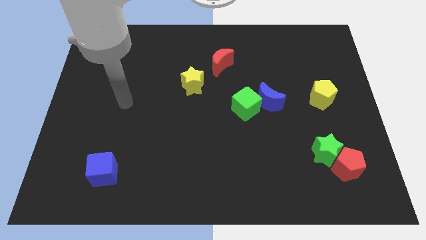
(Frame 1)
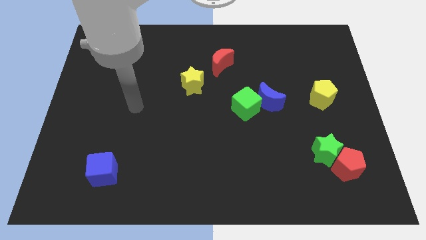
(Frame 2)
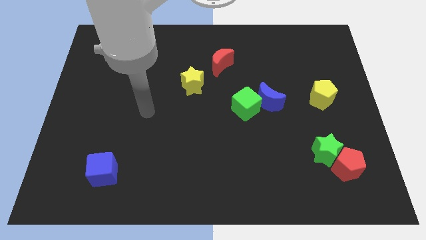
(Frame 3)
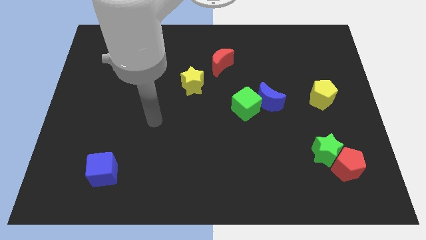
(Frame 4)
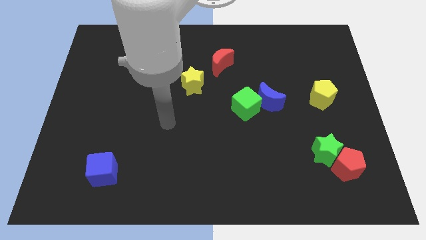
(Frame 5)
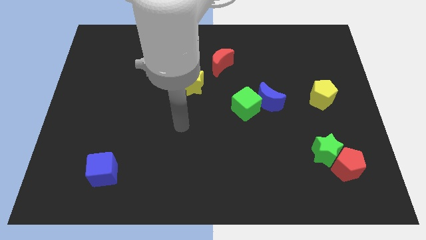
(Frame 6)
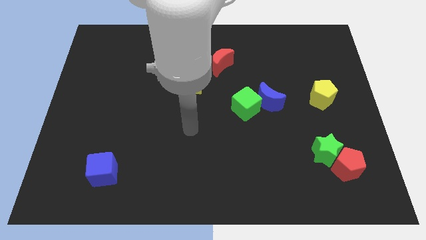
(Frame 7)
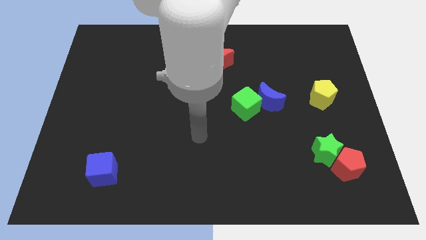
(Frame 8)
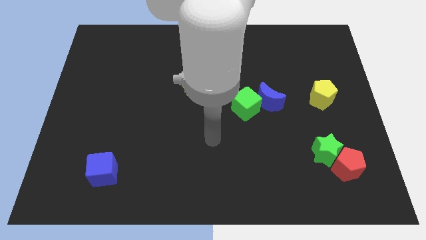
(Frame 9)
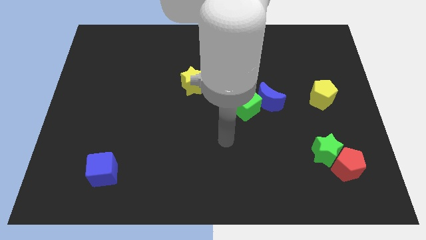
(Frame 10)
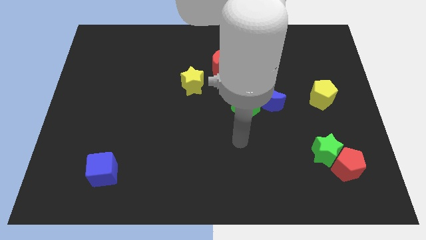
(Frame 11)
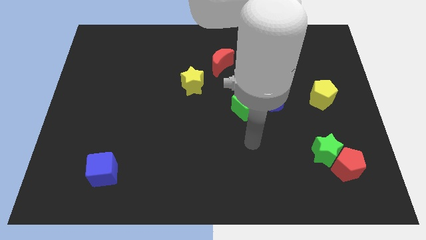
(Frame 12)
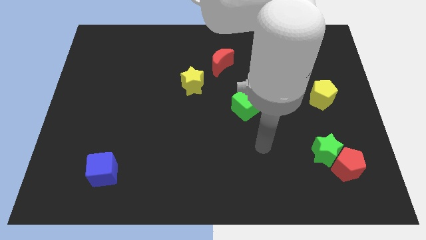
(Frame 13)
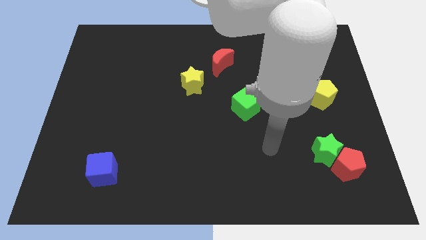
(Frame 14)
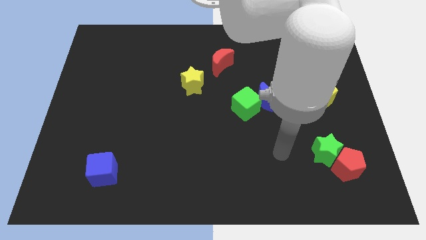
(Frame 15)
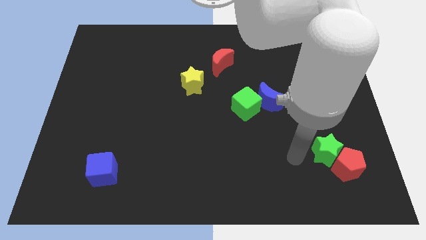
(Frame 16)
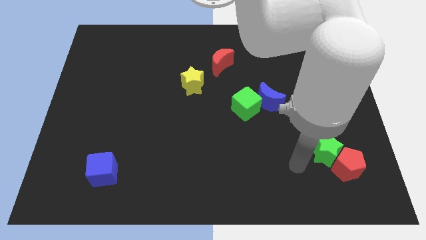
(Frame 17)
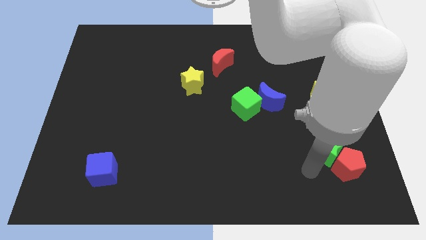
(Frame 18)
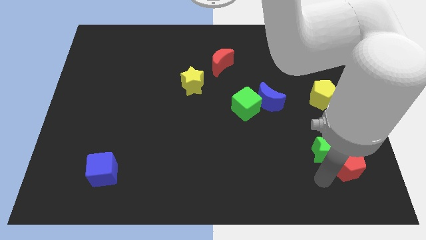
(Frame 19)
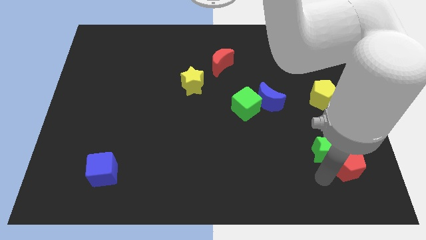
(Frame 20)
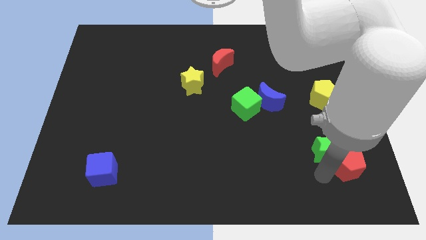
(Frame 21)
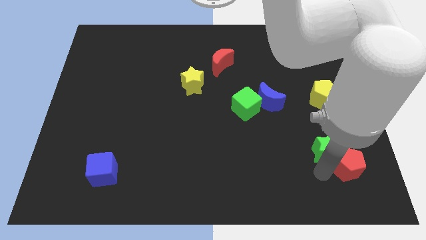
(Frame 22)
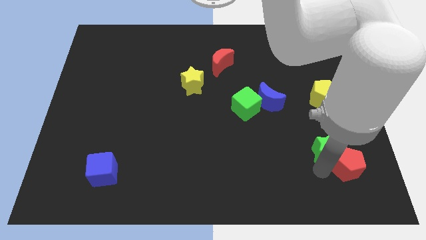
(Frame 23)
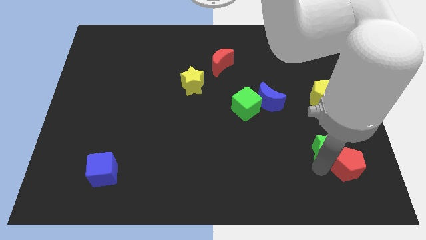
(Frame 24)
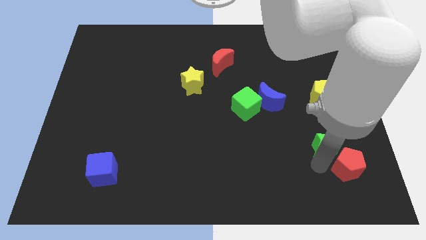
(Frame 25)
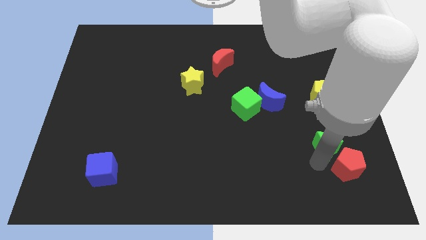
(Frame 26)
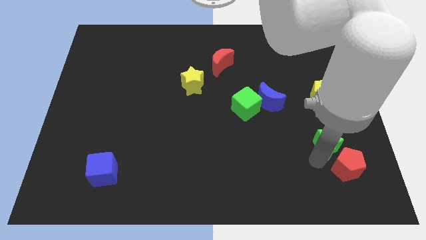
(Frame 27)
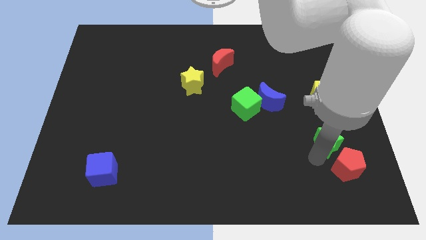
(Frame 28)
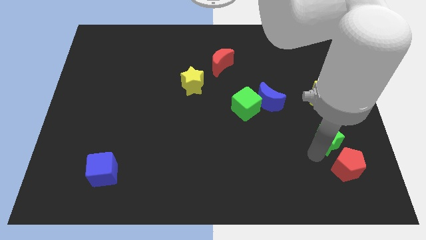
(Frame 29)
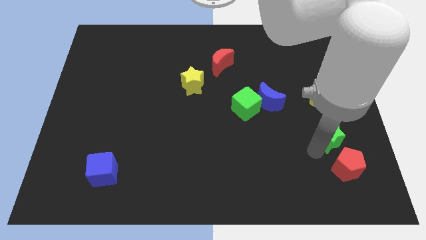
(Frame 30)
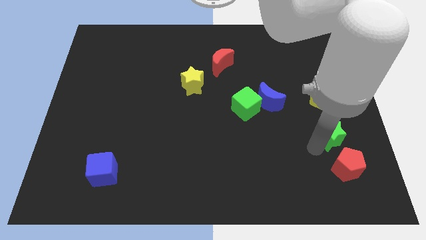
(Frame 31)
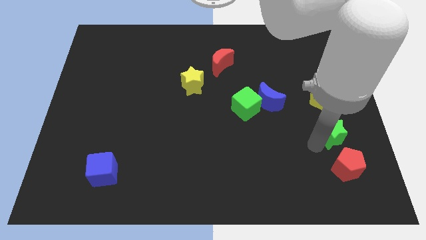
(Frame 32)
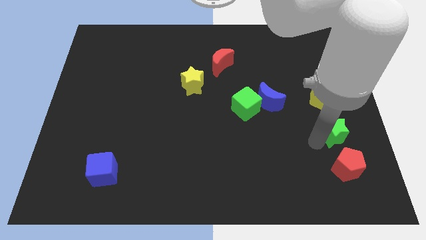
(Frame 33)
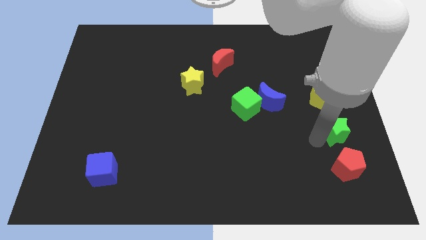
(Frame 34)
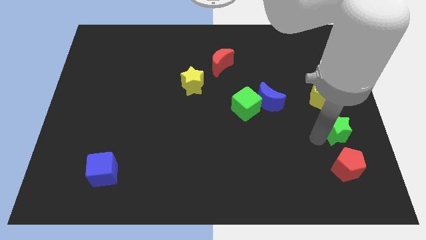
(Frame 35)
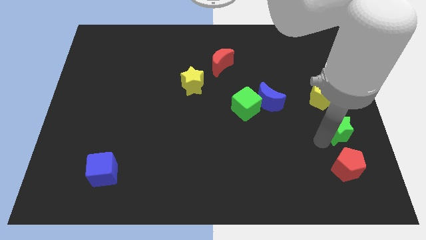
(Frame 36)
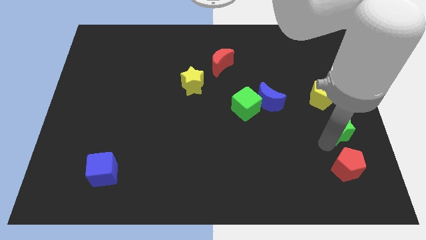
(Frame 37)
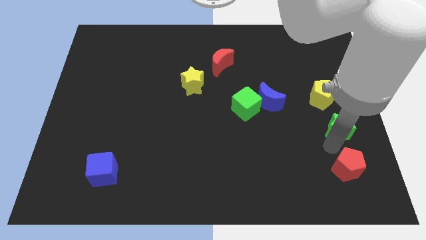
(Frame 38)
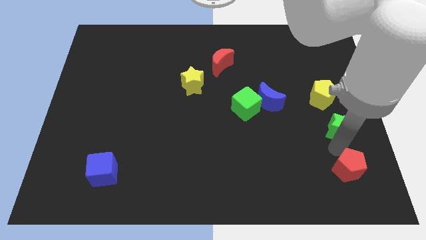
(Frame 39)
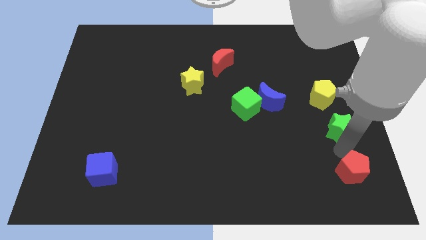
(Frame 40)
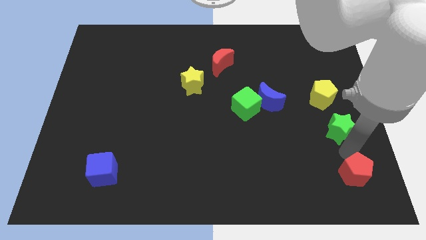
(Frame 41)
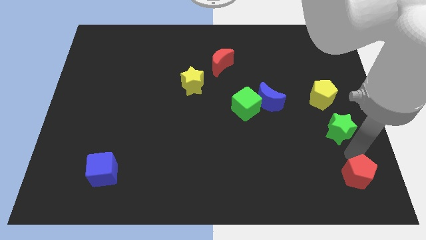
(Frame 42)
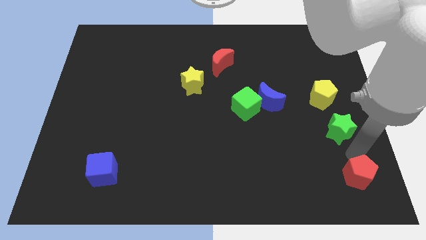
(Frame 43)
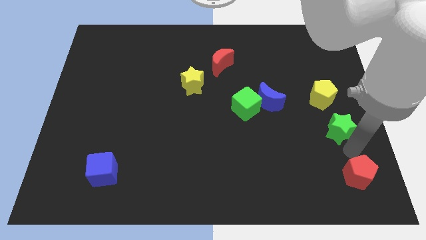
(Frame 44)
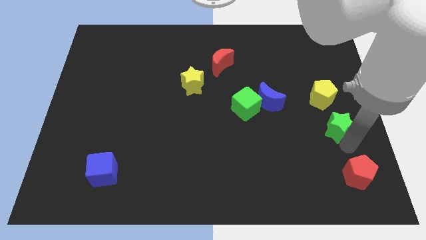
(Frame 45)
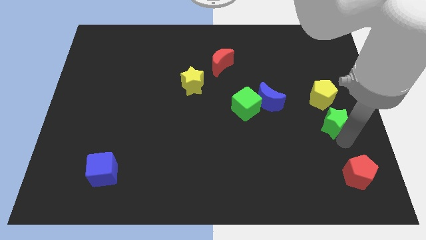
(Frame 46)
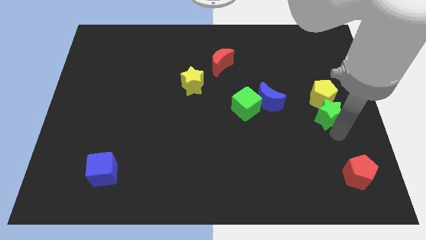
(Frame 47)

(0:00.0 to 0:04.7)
push the green star to the yellow pentagon

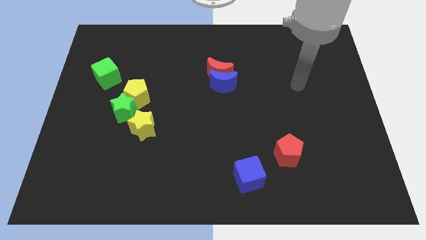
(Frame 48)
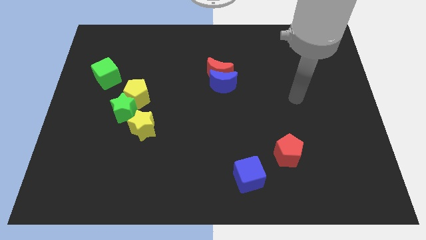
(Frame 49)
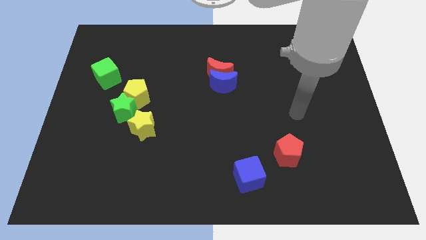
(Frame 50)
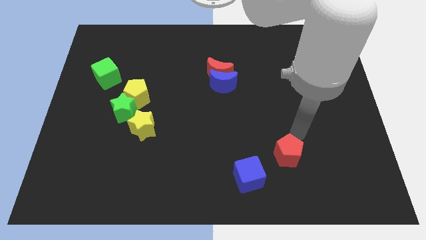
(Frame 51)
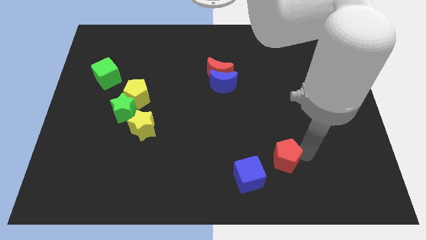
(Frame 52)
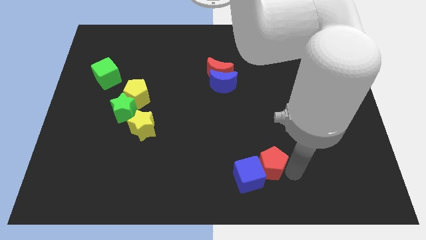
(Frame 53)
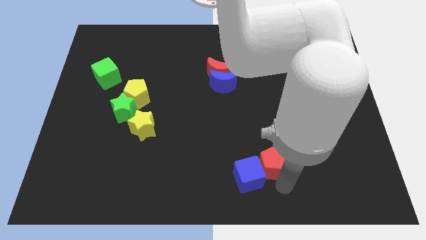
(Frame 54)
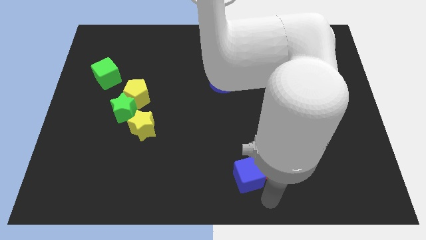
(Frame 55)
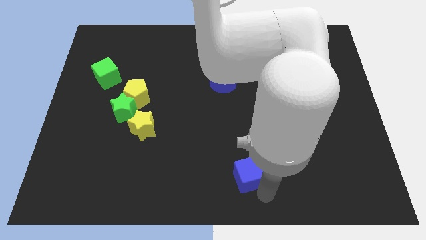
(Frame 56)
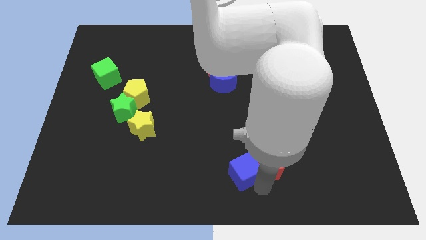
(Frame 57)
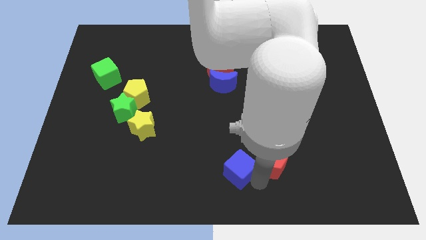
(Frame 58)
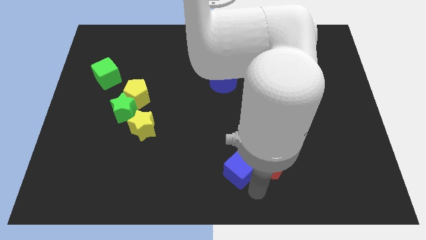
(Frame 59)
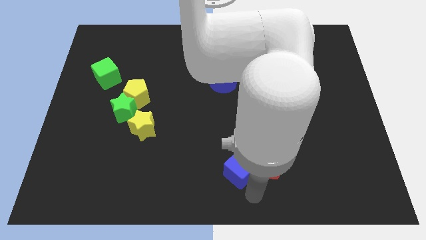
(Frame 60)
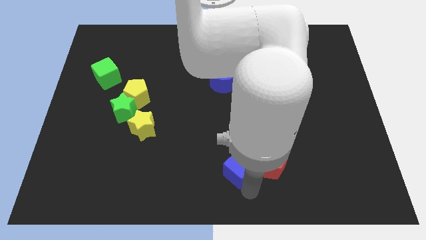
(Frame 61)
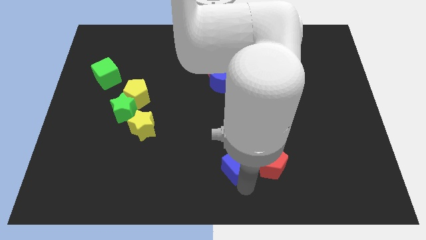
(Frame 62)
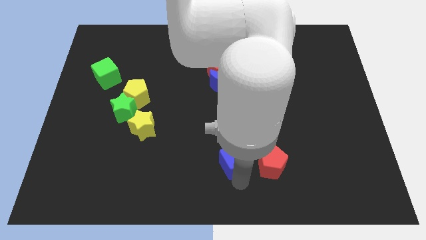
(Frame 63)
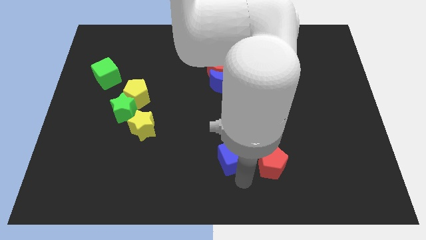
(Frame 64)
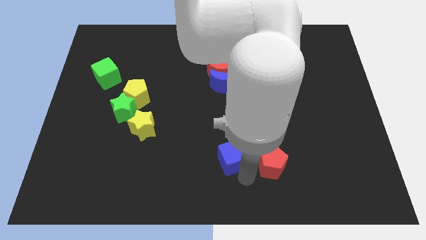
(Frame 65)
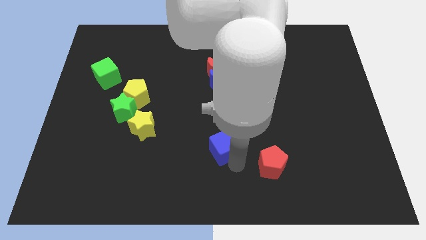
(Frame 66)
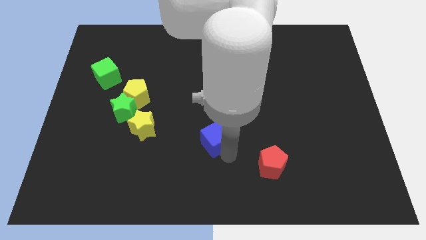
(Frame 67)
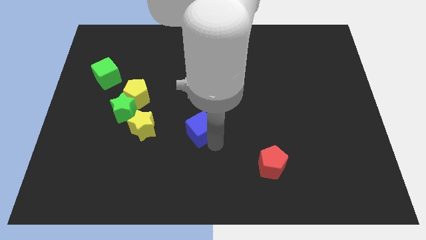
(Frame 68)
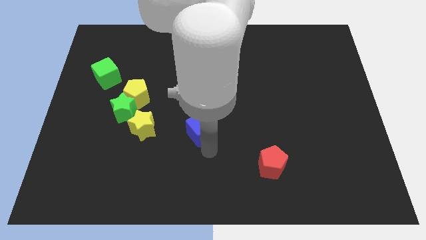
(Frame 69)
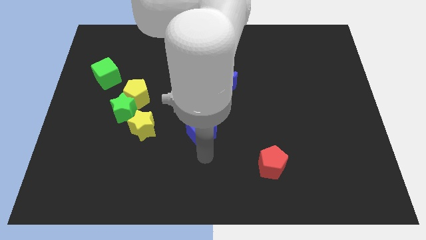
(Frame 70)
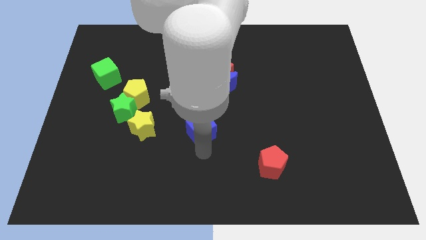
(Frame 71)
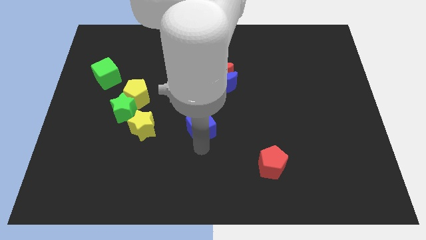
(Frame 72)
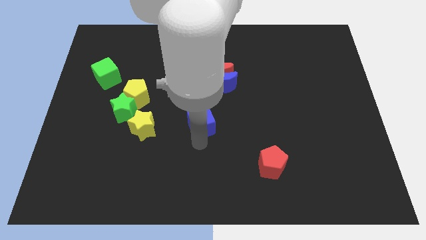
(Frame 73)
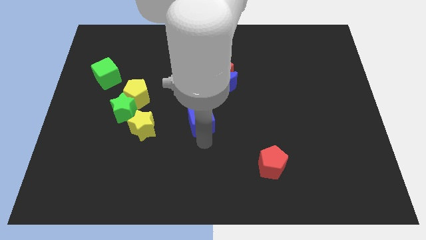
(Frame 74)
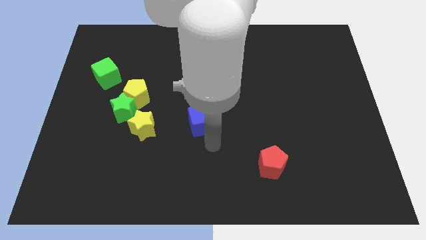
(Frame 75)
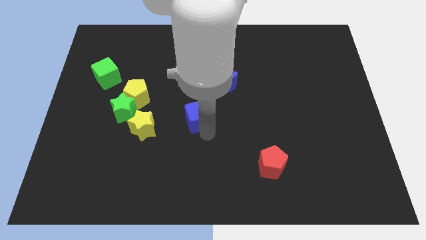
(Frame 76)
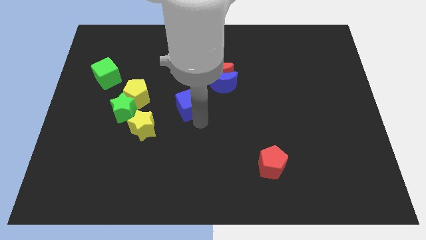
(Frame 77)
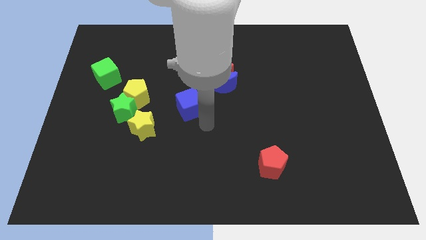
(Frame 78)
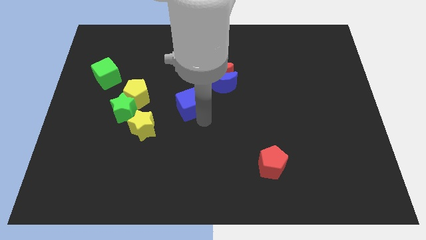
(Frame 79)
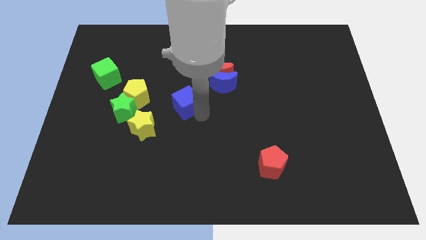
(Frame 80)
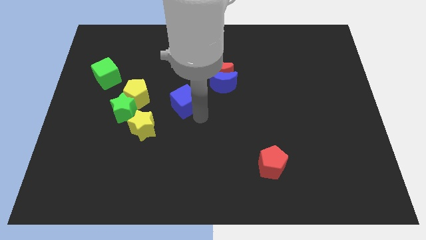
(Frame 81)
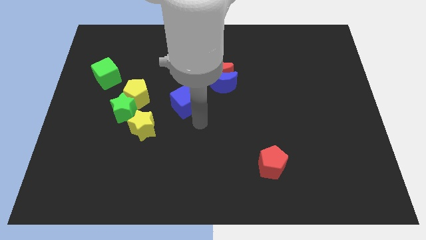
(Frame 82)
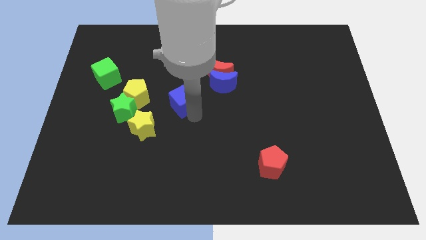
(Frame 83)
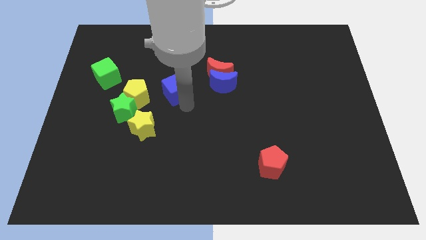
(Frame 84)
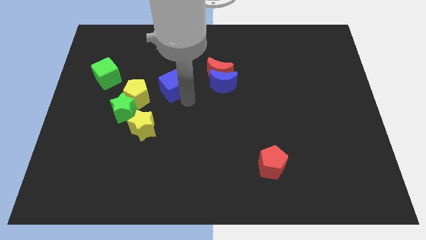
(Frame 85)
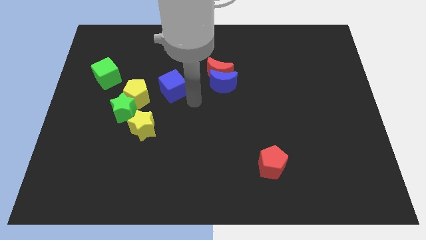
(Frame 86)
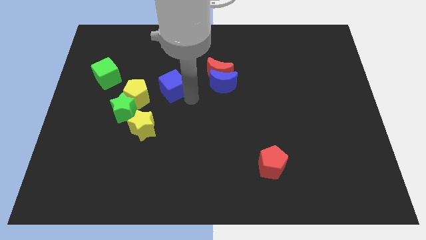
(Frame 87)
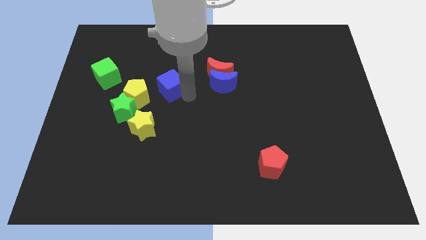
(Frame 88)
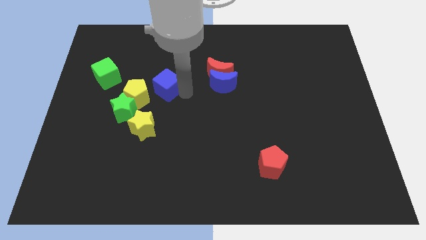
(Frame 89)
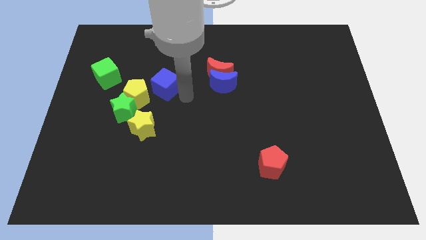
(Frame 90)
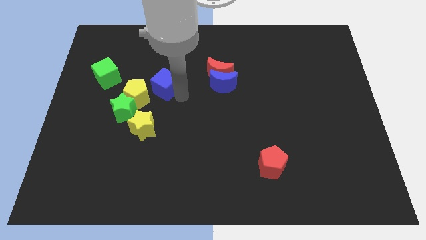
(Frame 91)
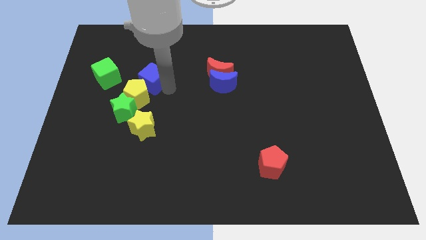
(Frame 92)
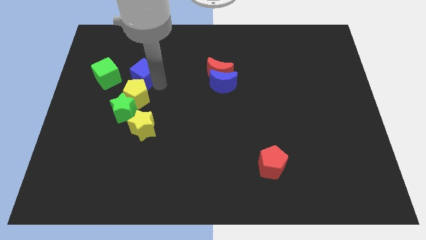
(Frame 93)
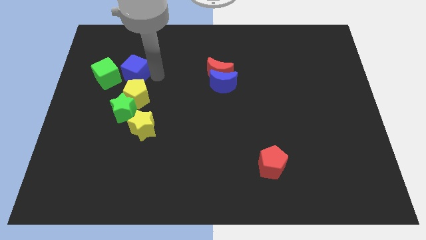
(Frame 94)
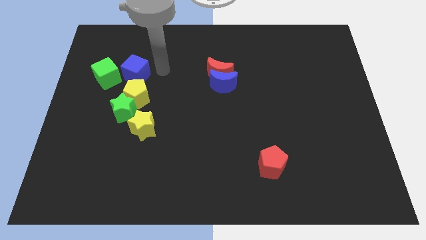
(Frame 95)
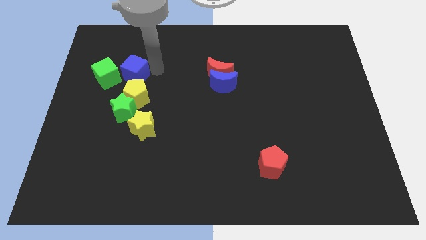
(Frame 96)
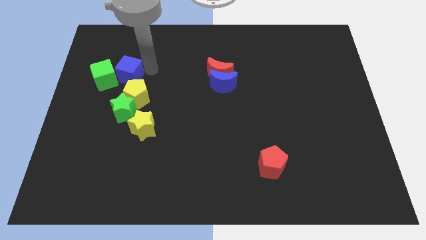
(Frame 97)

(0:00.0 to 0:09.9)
put the blue cube close to the green cube
